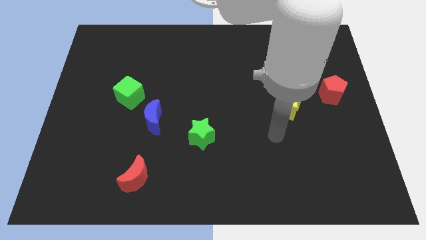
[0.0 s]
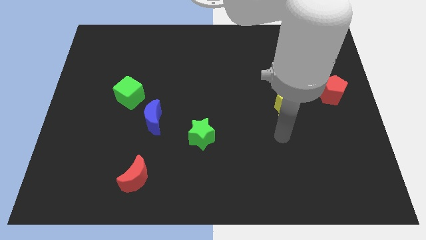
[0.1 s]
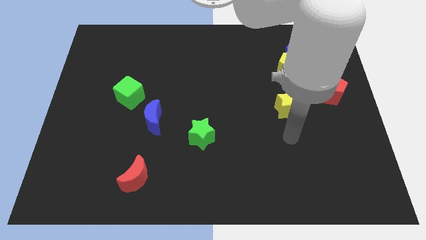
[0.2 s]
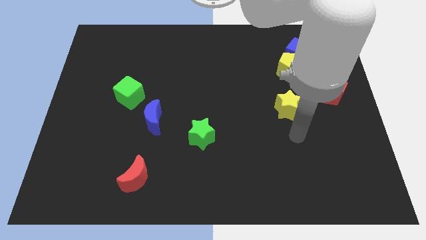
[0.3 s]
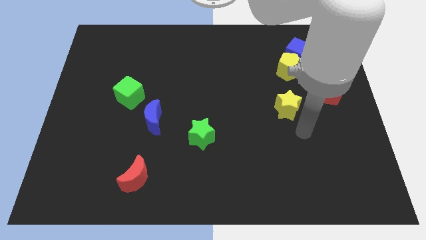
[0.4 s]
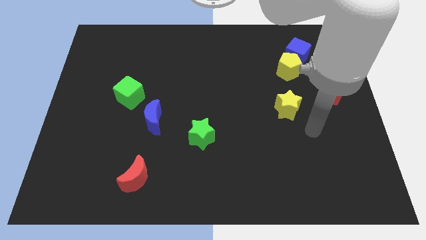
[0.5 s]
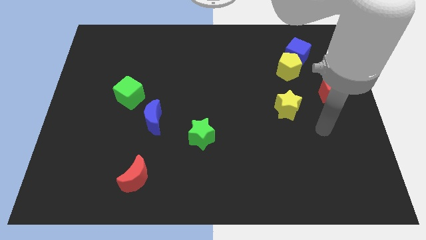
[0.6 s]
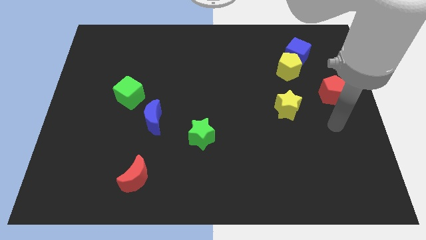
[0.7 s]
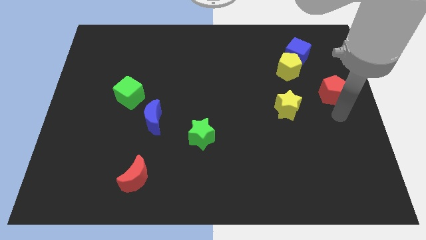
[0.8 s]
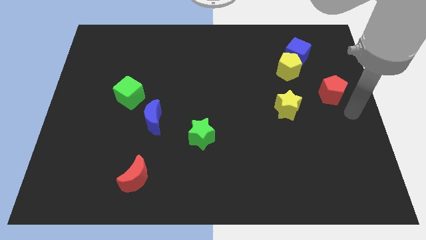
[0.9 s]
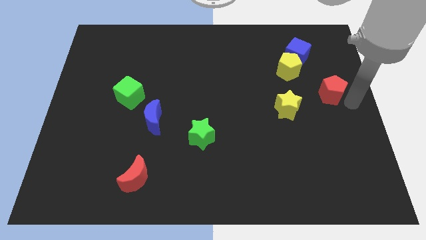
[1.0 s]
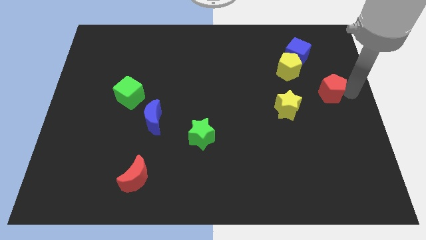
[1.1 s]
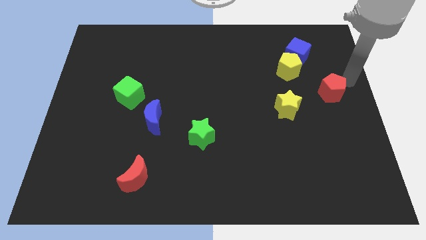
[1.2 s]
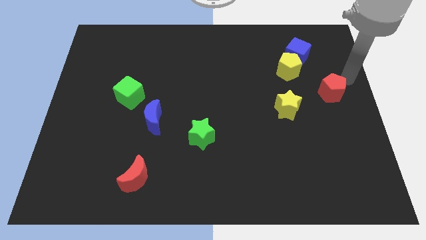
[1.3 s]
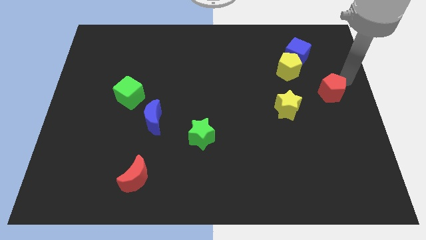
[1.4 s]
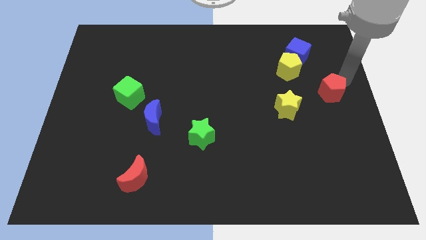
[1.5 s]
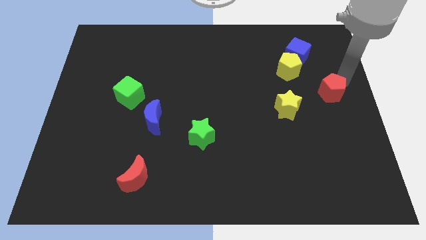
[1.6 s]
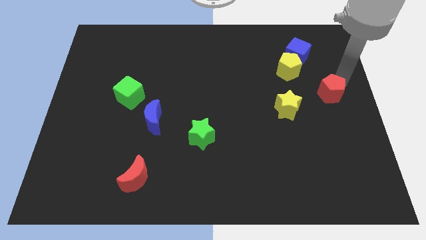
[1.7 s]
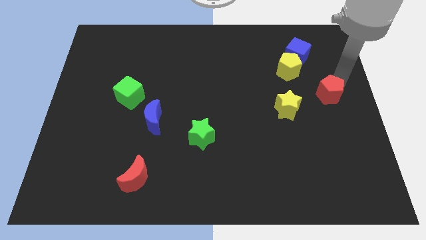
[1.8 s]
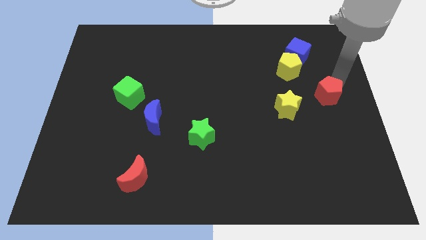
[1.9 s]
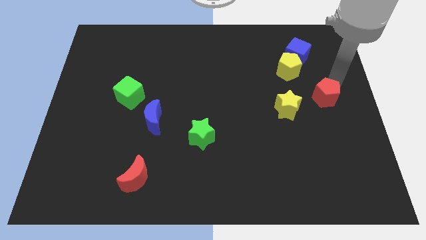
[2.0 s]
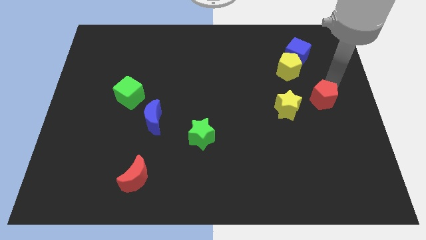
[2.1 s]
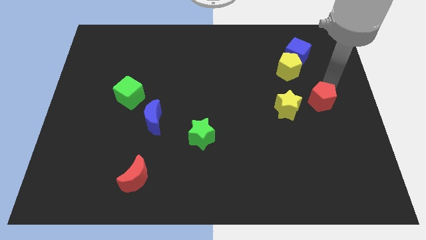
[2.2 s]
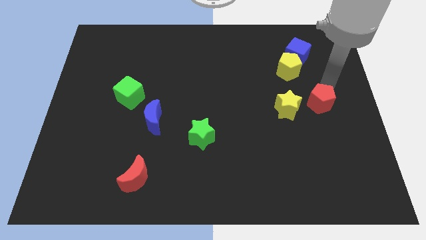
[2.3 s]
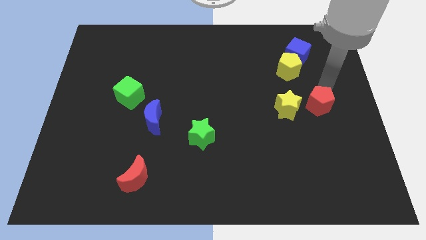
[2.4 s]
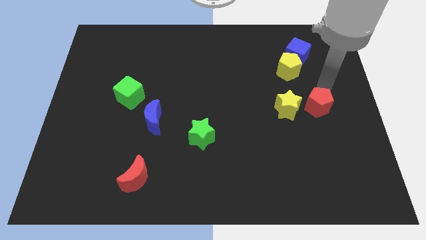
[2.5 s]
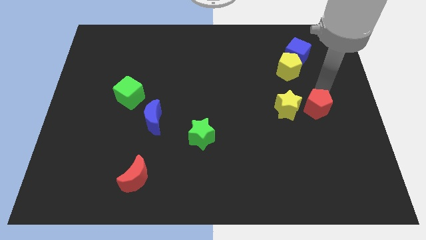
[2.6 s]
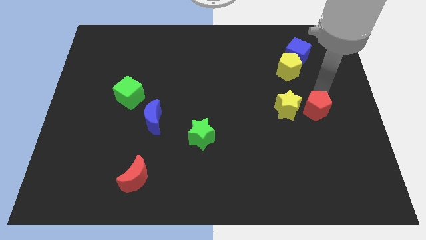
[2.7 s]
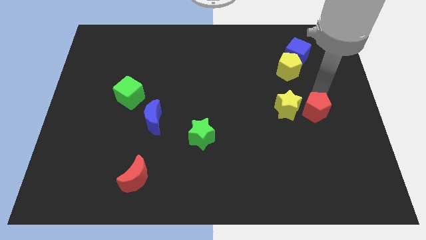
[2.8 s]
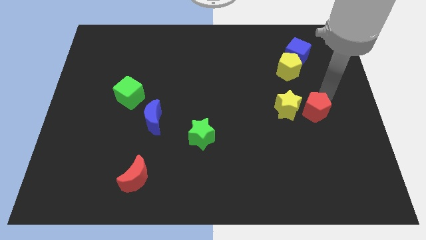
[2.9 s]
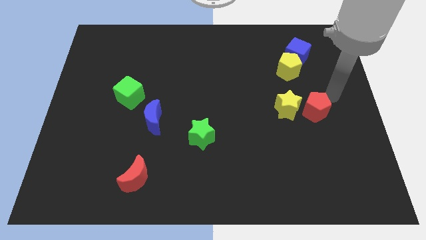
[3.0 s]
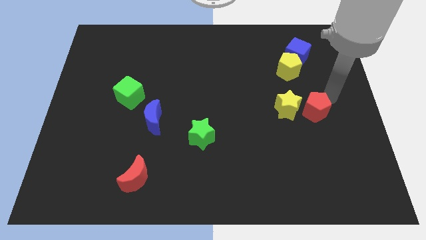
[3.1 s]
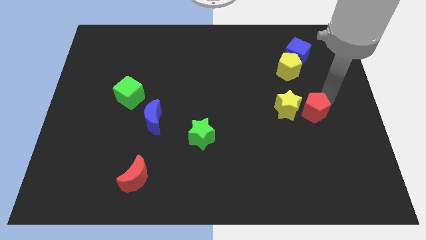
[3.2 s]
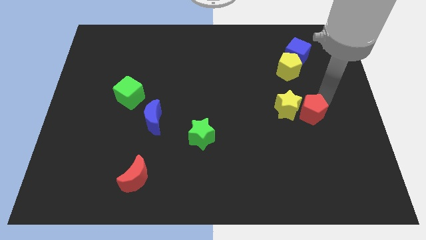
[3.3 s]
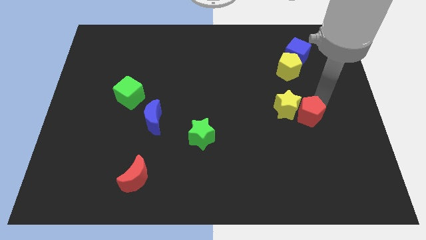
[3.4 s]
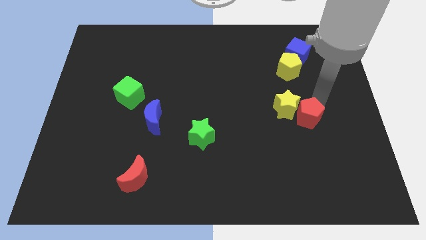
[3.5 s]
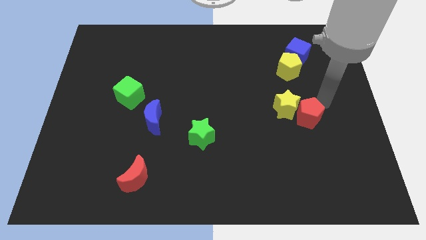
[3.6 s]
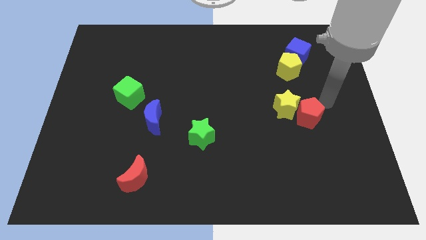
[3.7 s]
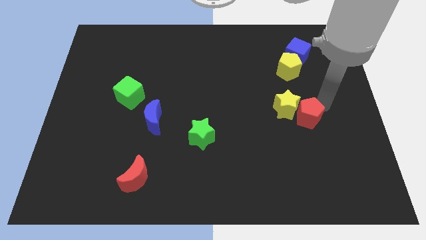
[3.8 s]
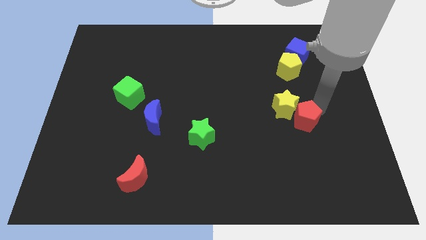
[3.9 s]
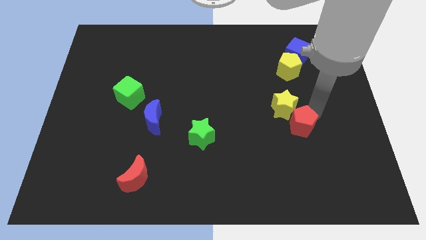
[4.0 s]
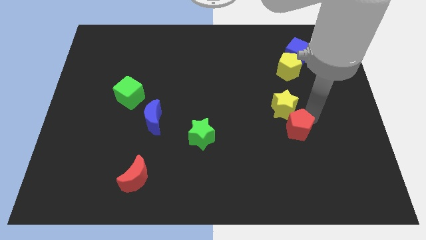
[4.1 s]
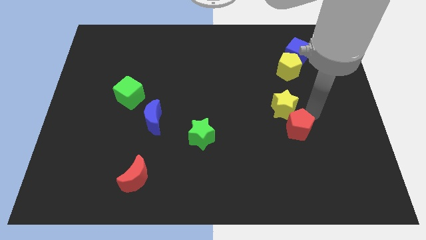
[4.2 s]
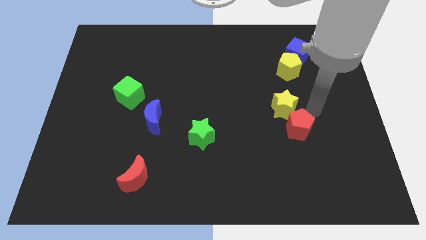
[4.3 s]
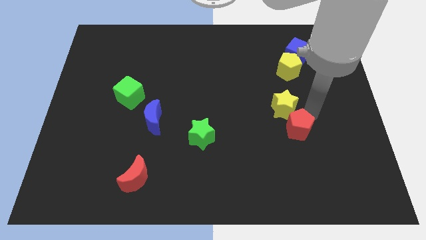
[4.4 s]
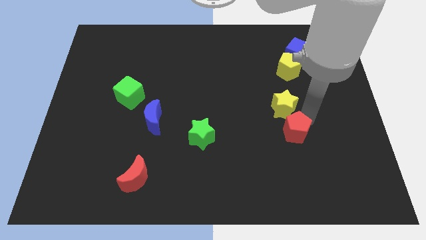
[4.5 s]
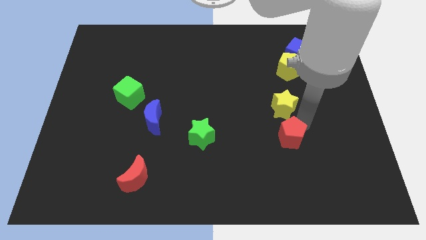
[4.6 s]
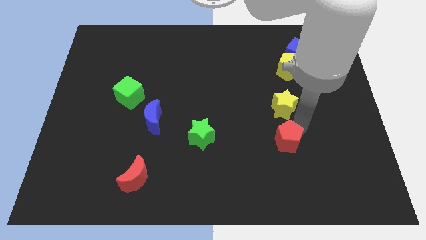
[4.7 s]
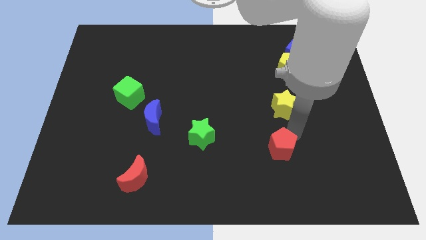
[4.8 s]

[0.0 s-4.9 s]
move the red pentagon diagonally downwards and to the left

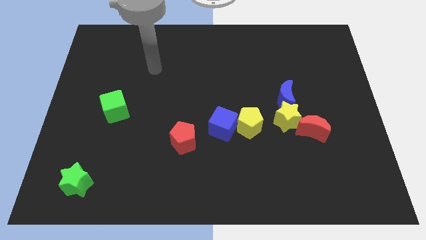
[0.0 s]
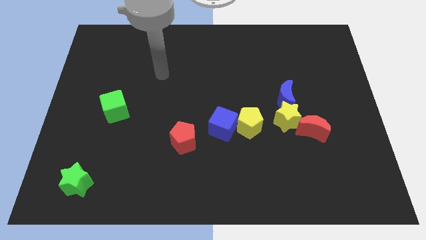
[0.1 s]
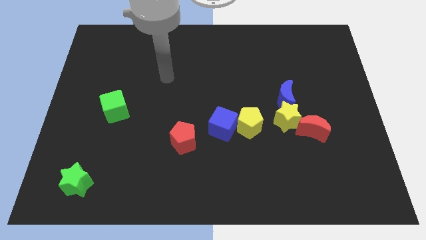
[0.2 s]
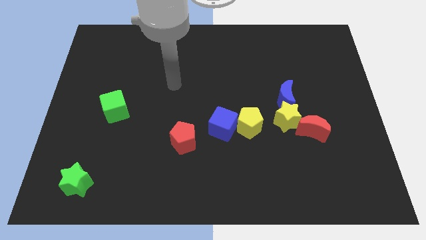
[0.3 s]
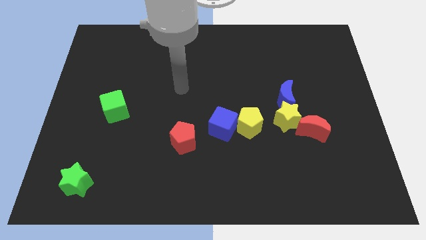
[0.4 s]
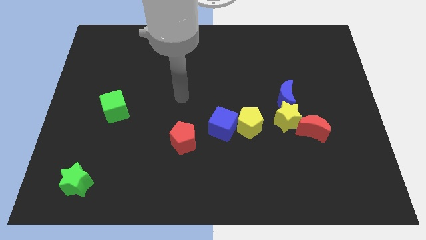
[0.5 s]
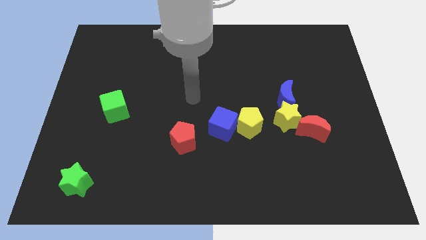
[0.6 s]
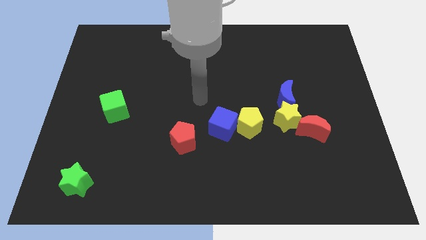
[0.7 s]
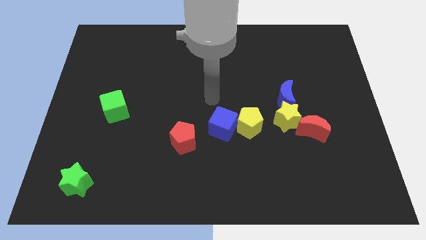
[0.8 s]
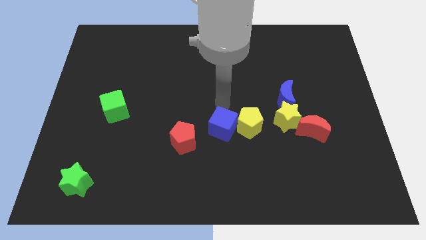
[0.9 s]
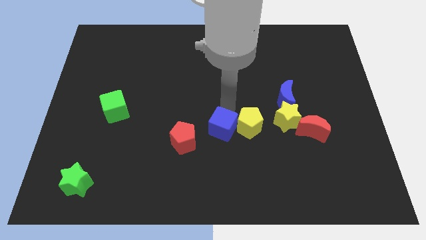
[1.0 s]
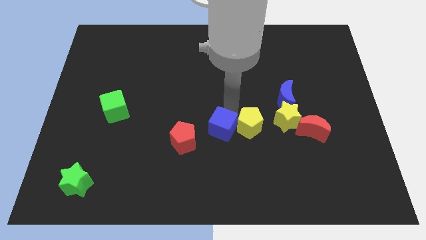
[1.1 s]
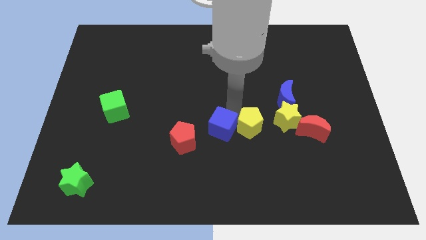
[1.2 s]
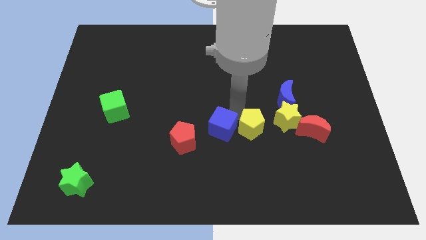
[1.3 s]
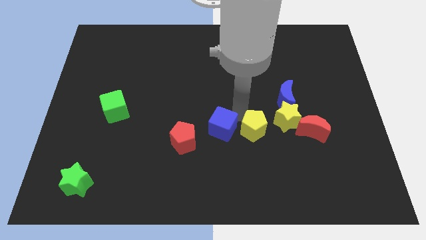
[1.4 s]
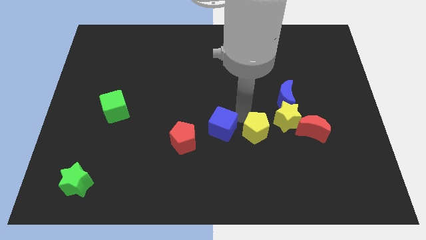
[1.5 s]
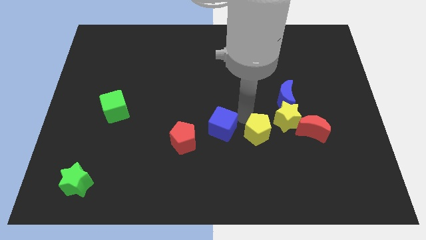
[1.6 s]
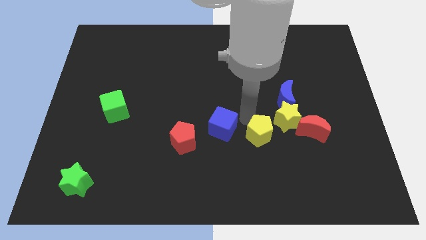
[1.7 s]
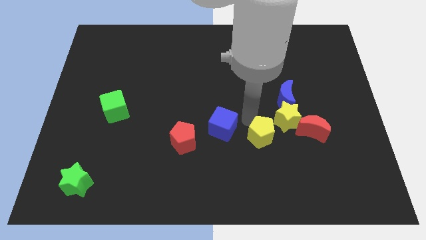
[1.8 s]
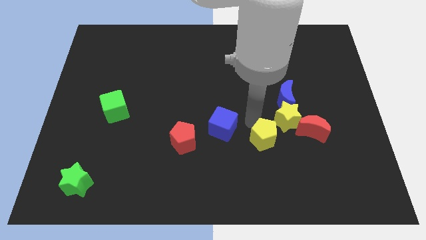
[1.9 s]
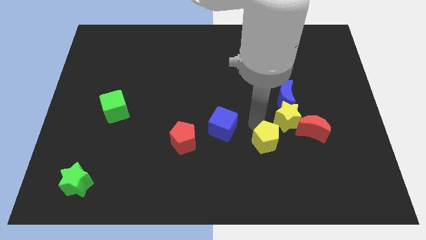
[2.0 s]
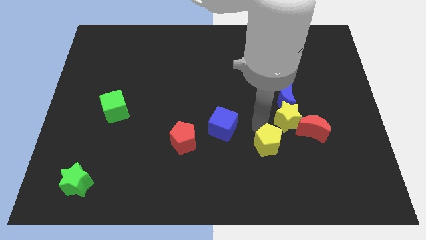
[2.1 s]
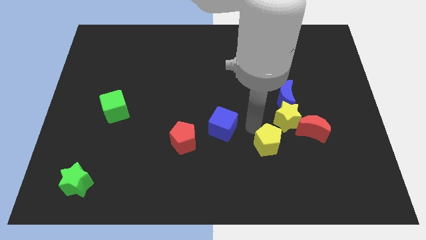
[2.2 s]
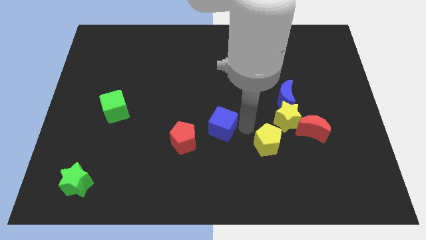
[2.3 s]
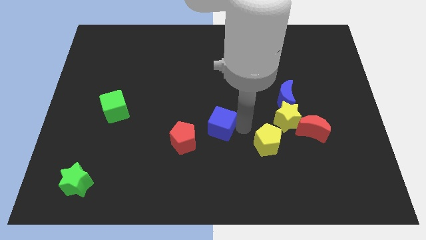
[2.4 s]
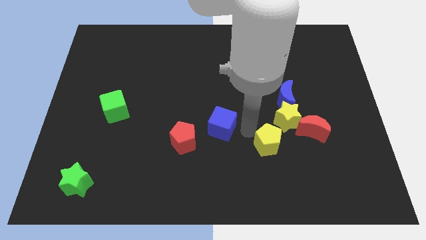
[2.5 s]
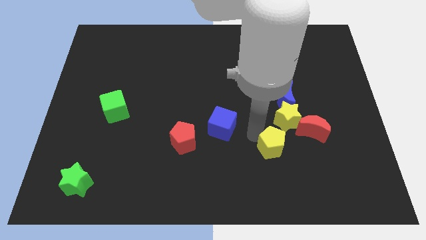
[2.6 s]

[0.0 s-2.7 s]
slightly slide the yellow pentagon downwards and right diagonally

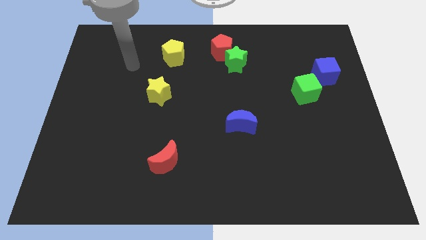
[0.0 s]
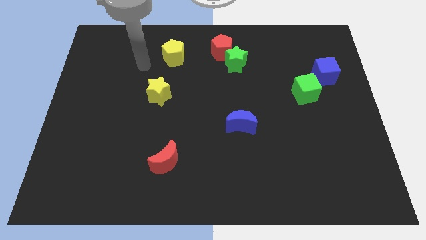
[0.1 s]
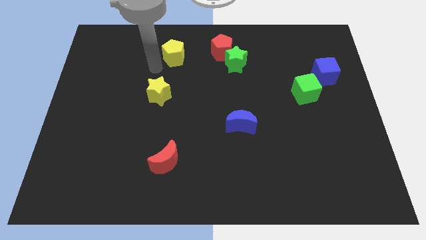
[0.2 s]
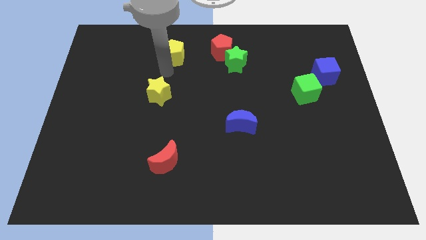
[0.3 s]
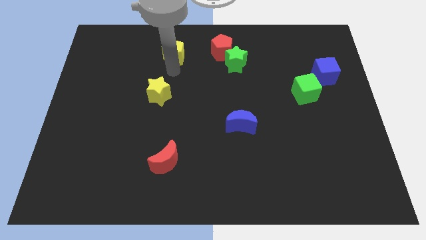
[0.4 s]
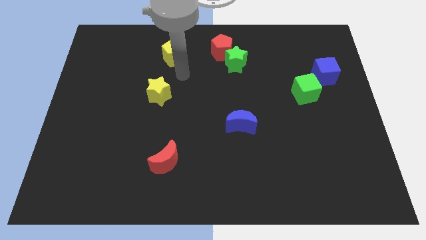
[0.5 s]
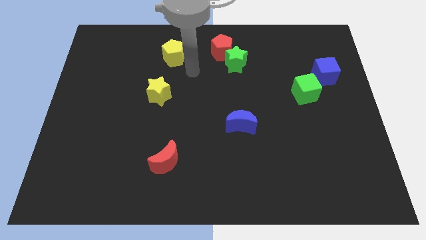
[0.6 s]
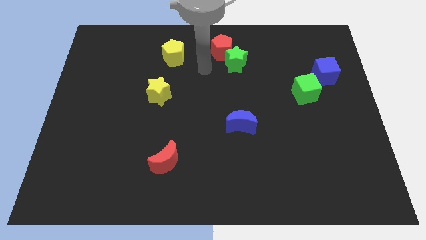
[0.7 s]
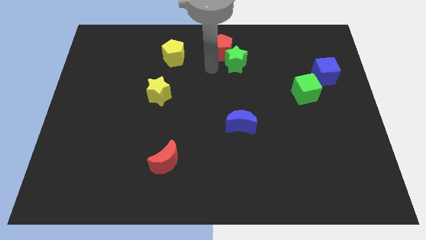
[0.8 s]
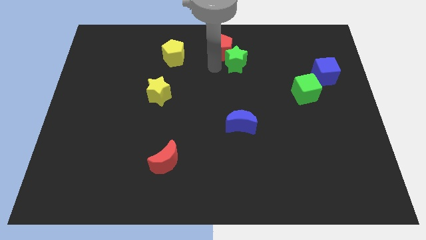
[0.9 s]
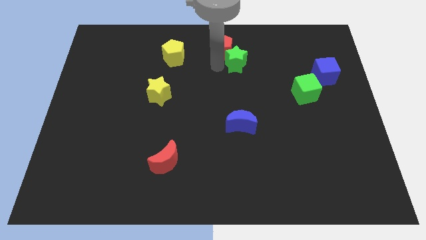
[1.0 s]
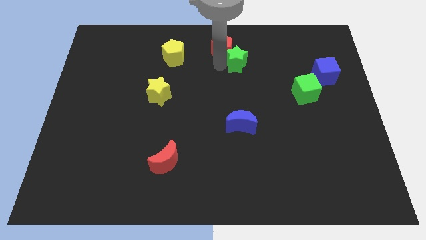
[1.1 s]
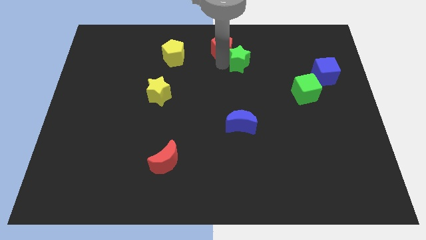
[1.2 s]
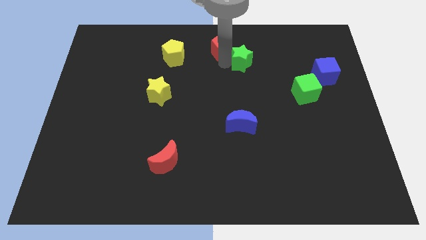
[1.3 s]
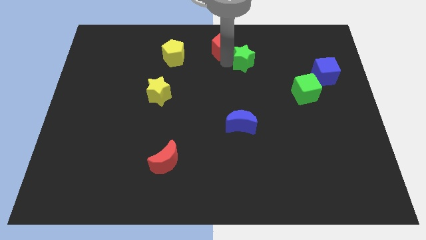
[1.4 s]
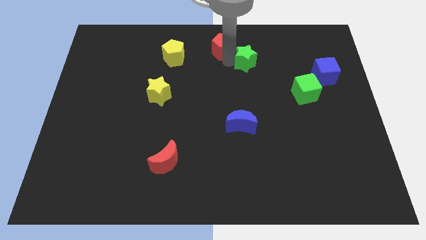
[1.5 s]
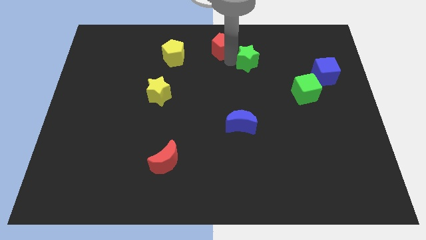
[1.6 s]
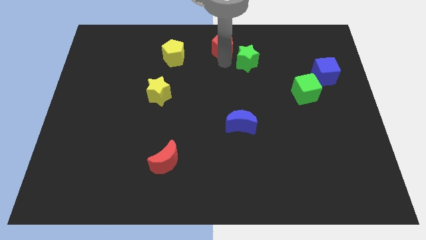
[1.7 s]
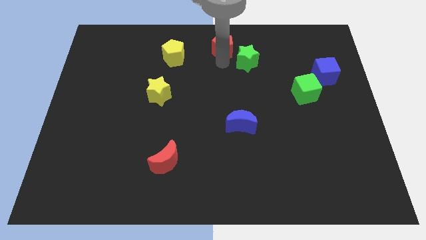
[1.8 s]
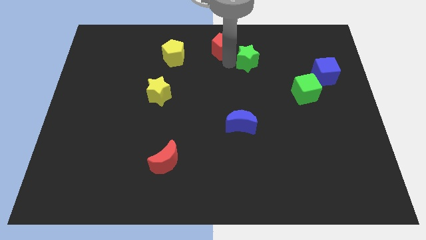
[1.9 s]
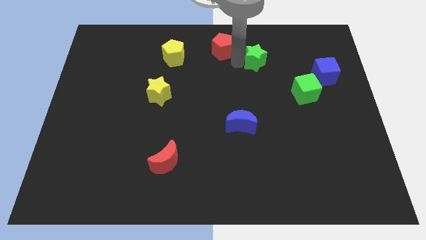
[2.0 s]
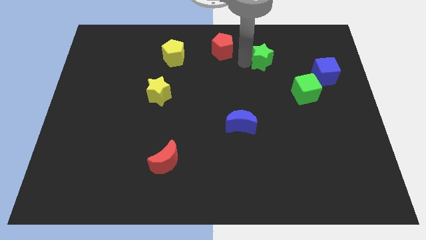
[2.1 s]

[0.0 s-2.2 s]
slide the green star a little to the right
